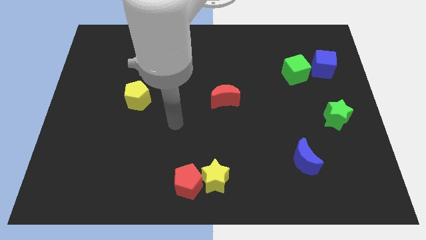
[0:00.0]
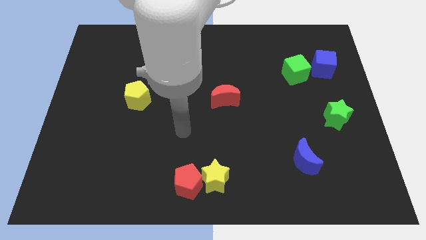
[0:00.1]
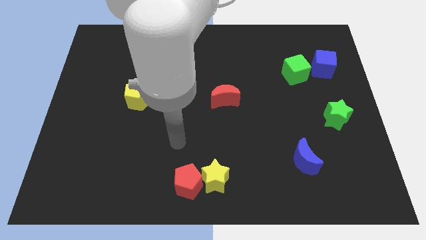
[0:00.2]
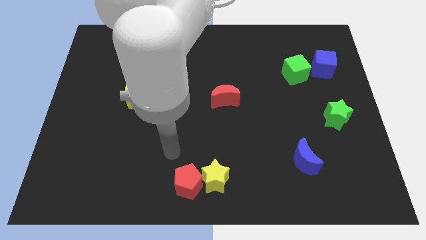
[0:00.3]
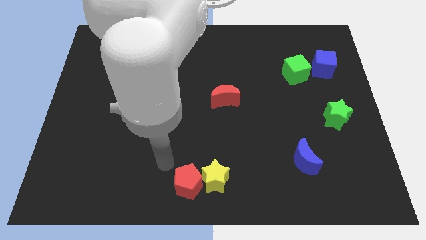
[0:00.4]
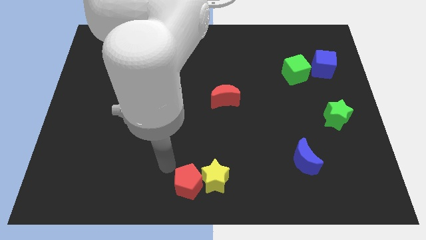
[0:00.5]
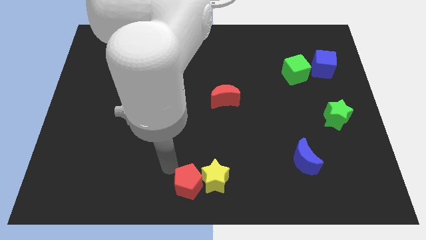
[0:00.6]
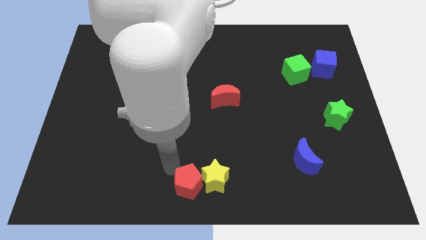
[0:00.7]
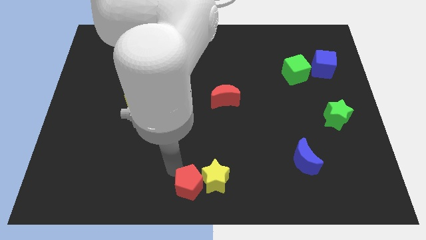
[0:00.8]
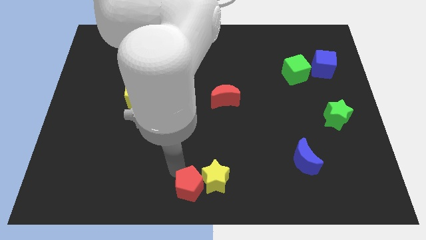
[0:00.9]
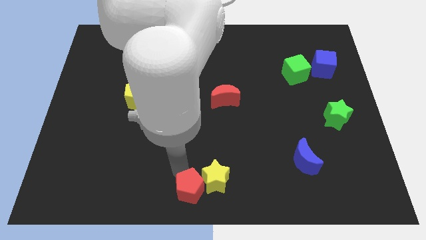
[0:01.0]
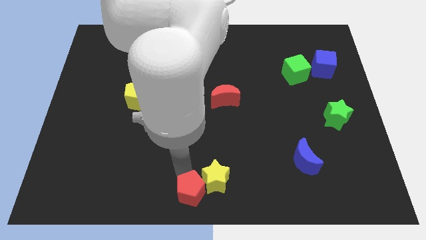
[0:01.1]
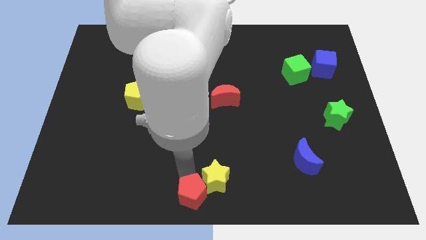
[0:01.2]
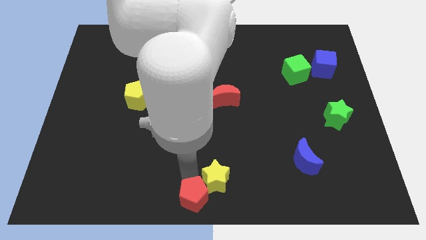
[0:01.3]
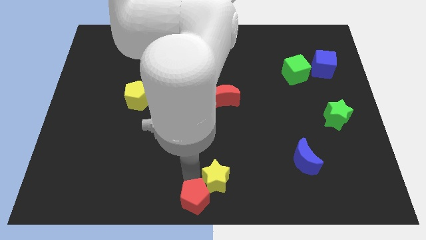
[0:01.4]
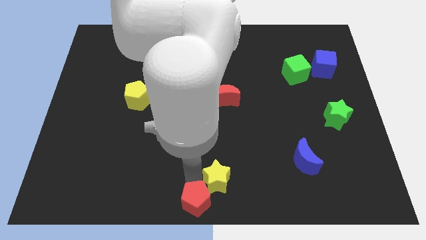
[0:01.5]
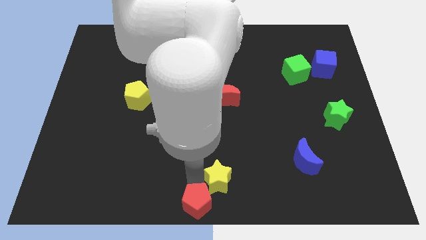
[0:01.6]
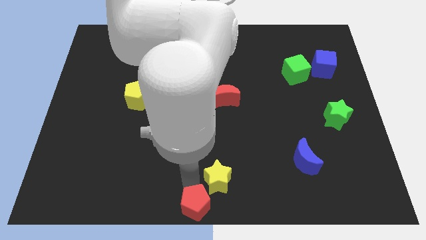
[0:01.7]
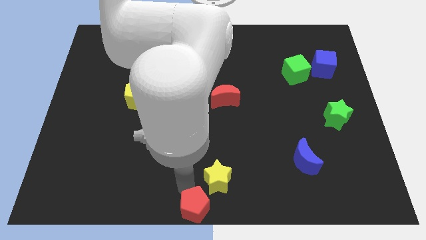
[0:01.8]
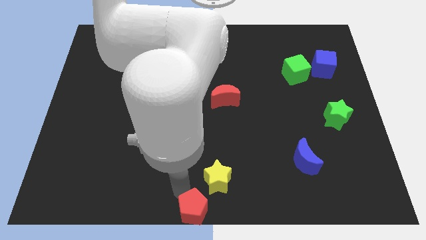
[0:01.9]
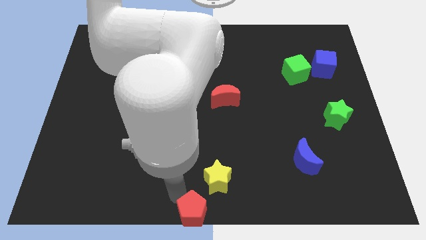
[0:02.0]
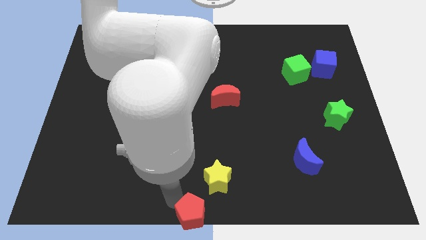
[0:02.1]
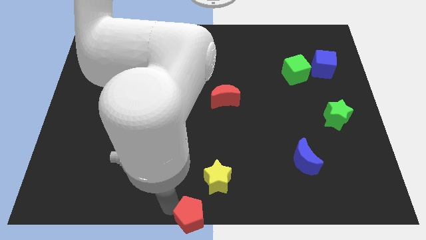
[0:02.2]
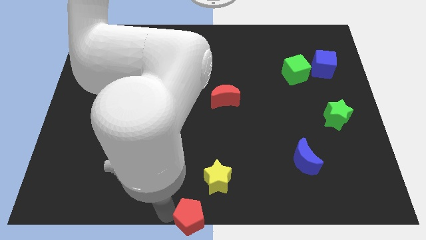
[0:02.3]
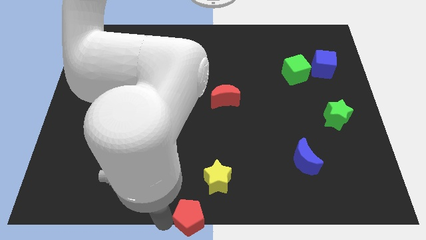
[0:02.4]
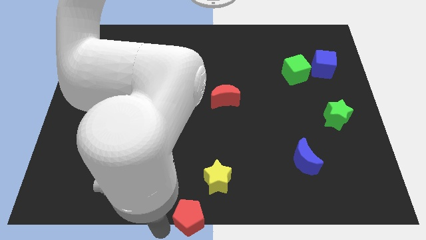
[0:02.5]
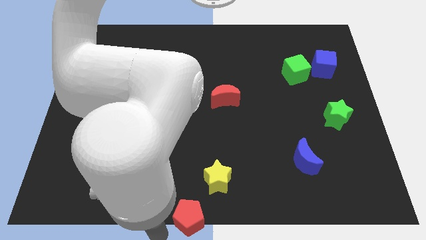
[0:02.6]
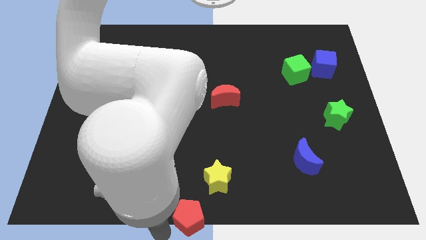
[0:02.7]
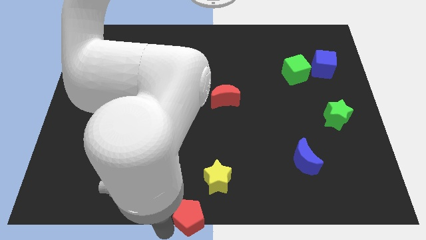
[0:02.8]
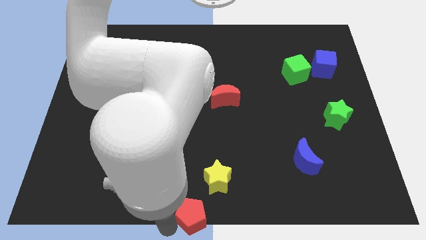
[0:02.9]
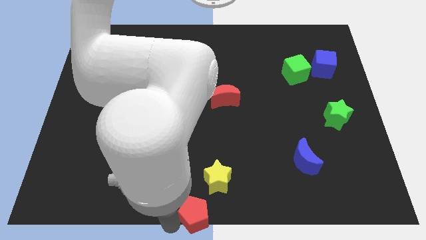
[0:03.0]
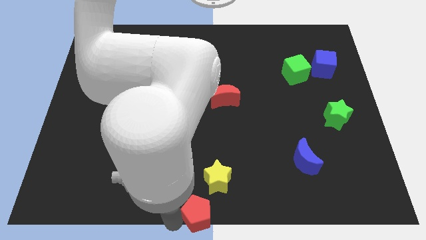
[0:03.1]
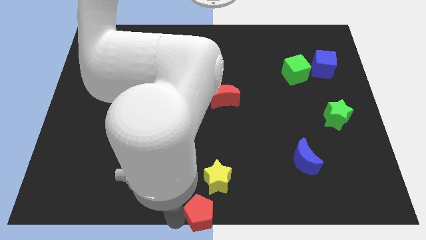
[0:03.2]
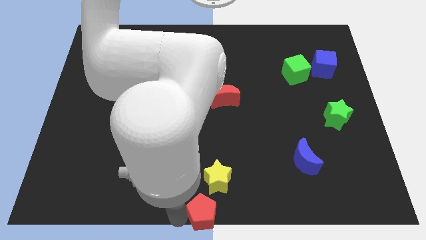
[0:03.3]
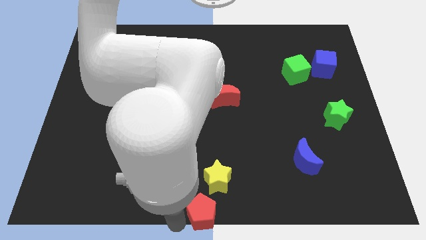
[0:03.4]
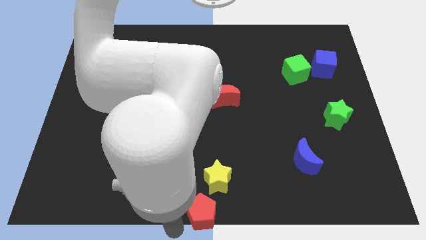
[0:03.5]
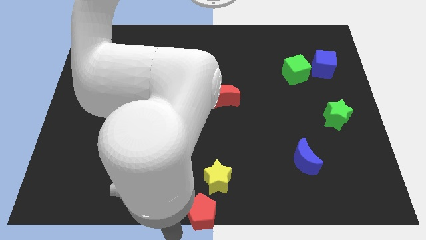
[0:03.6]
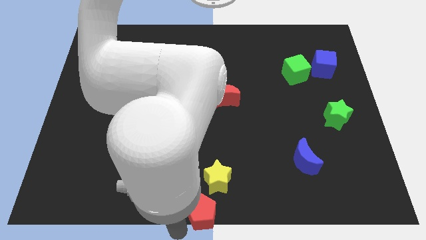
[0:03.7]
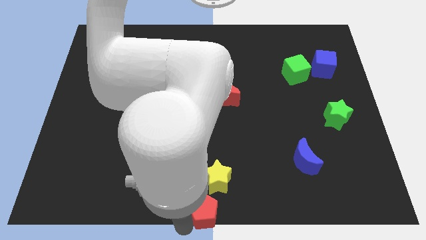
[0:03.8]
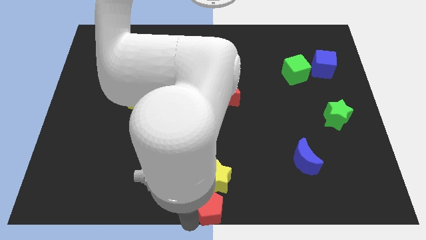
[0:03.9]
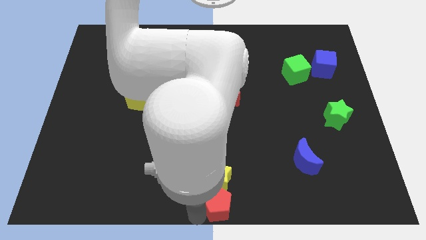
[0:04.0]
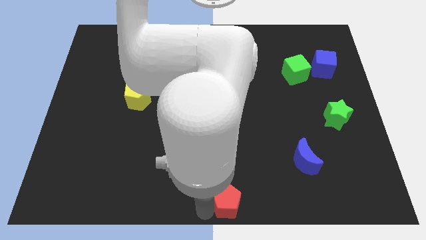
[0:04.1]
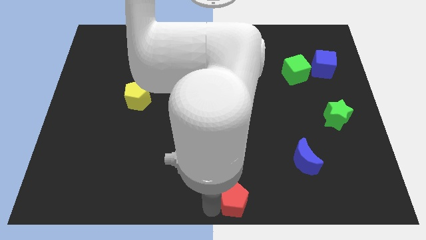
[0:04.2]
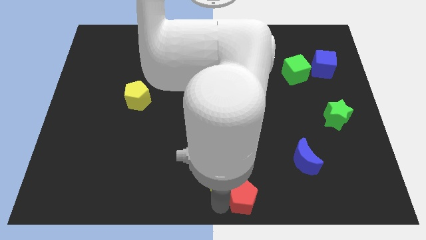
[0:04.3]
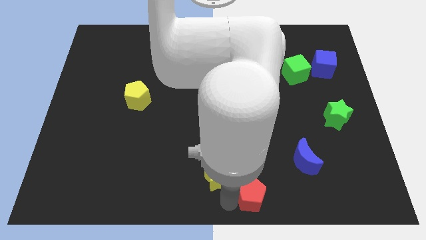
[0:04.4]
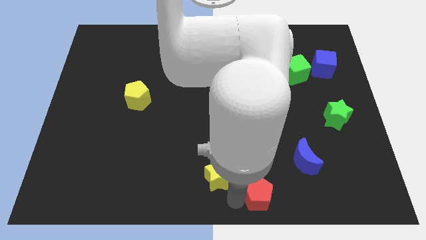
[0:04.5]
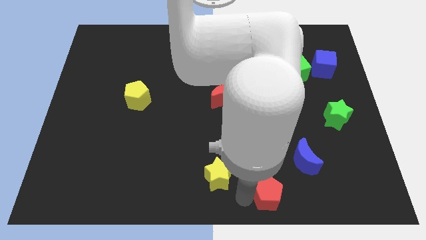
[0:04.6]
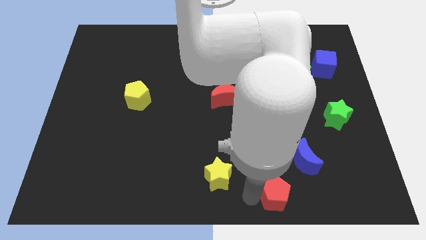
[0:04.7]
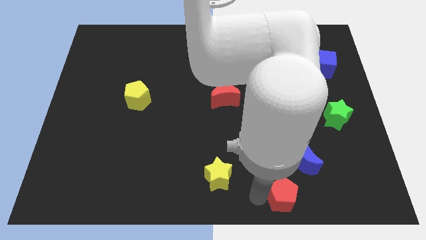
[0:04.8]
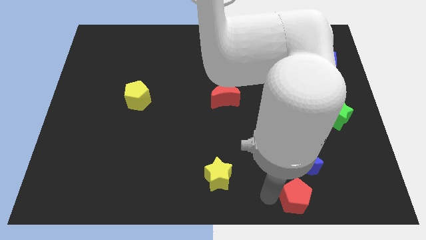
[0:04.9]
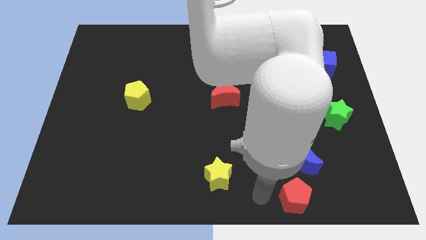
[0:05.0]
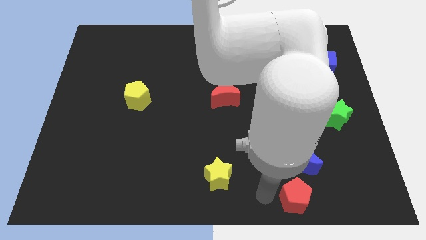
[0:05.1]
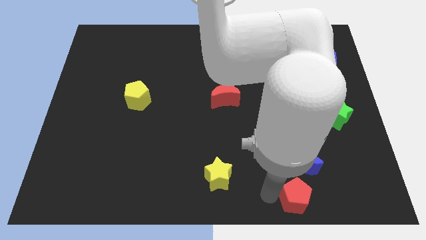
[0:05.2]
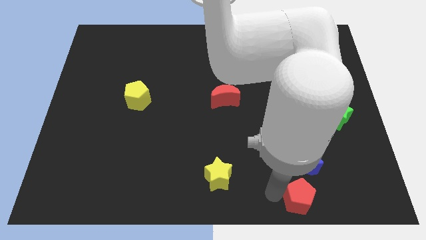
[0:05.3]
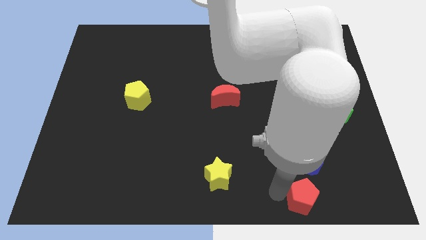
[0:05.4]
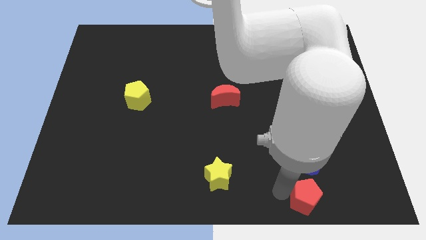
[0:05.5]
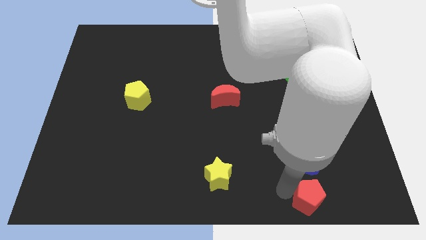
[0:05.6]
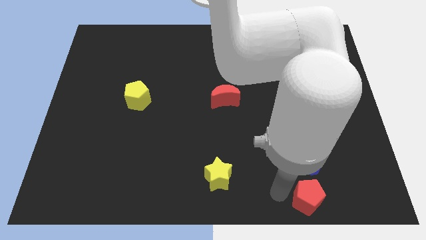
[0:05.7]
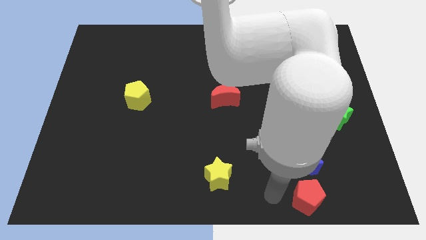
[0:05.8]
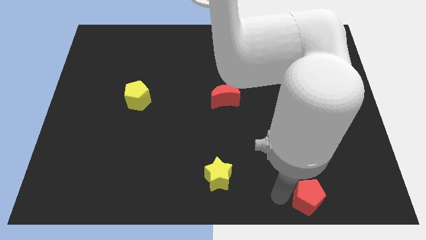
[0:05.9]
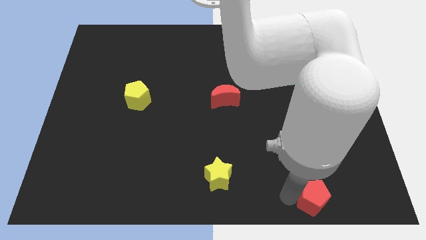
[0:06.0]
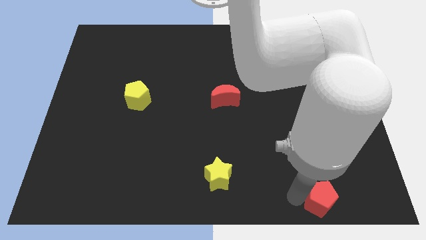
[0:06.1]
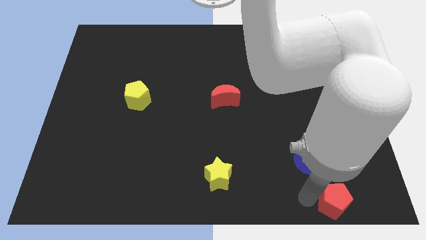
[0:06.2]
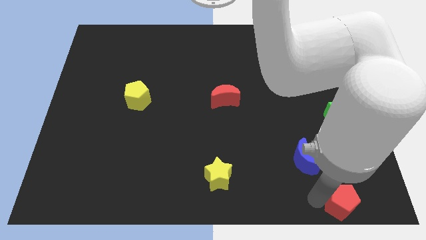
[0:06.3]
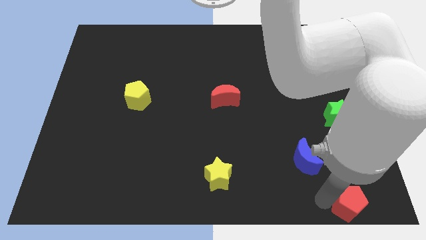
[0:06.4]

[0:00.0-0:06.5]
put the red pentagon to the lower right corner

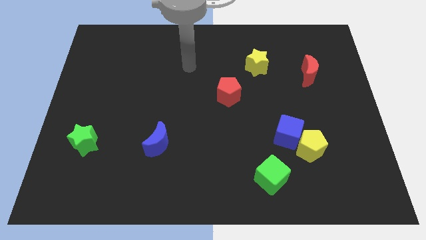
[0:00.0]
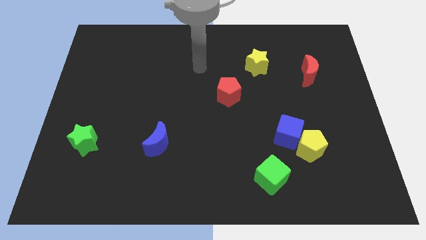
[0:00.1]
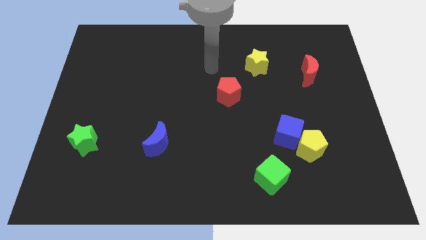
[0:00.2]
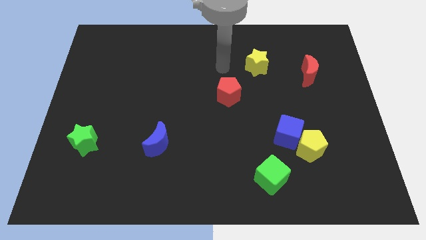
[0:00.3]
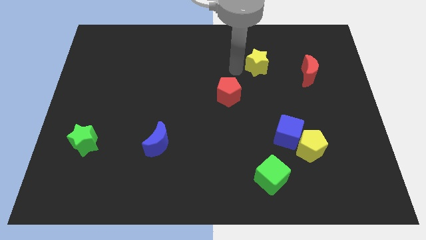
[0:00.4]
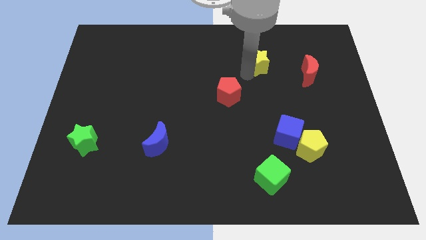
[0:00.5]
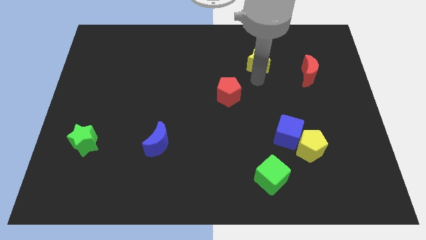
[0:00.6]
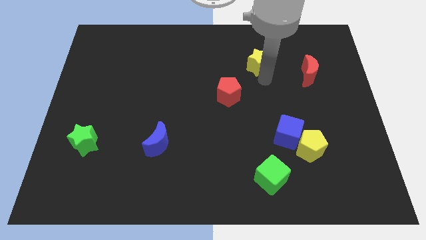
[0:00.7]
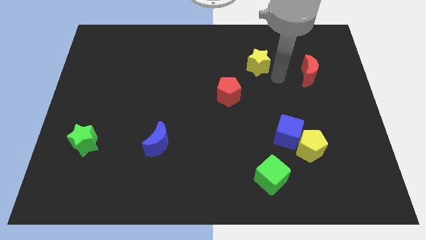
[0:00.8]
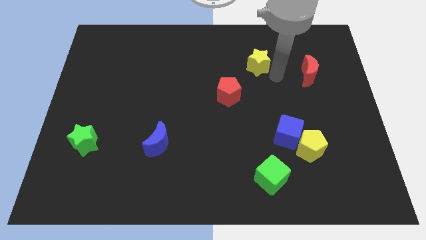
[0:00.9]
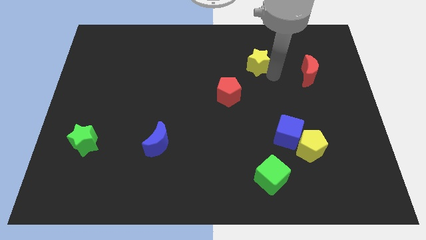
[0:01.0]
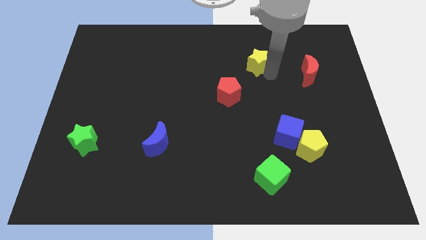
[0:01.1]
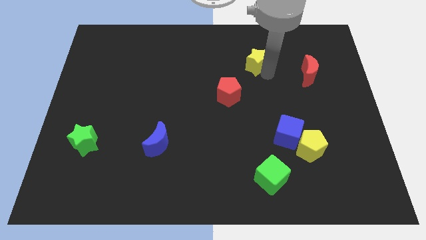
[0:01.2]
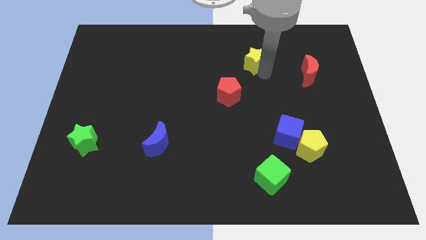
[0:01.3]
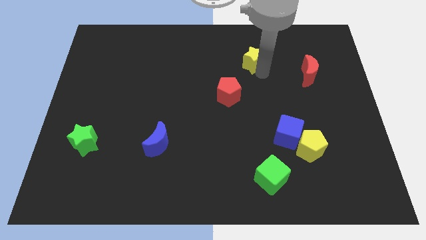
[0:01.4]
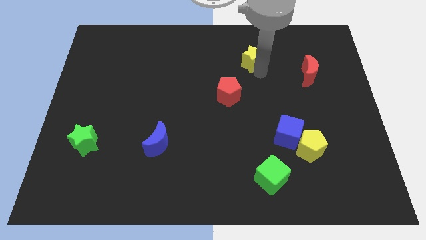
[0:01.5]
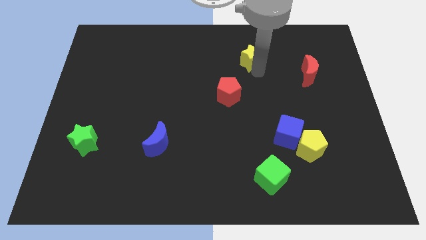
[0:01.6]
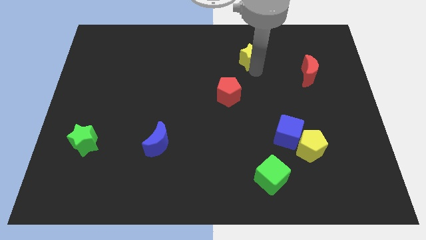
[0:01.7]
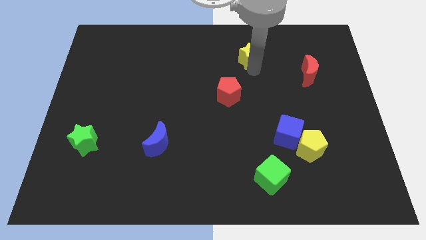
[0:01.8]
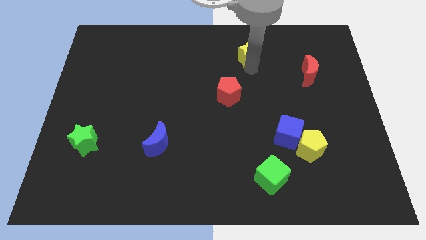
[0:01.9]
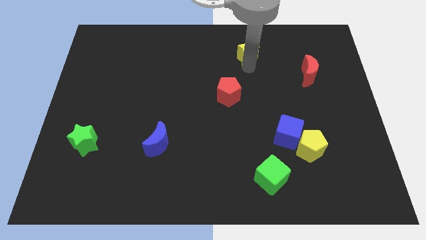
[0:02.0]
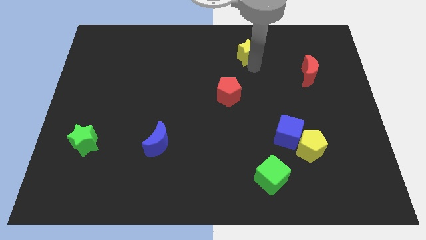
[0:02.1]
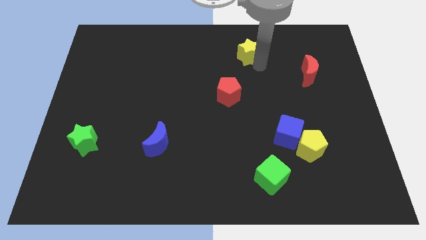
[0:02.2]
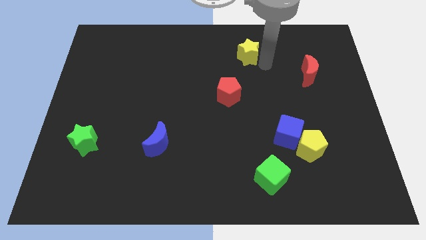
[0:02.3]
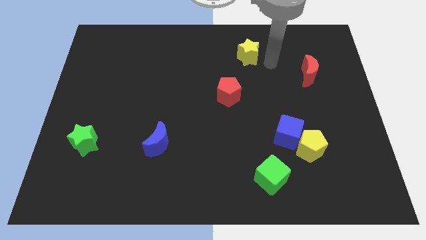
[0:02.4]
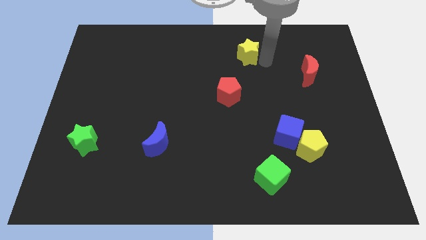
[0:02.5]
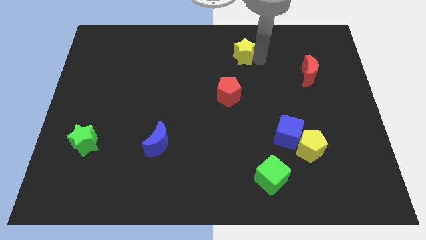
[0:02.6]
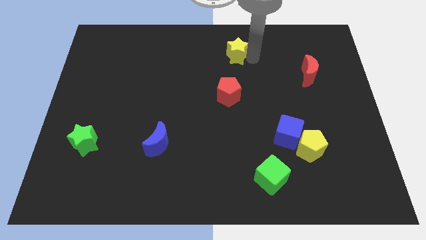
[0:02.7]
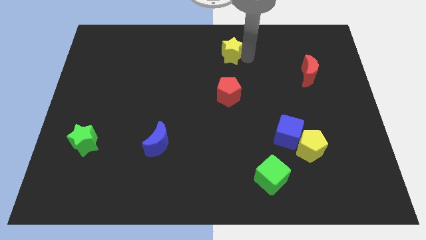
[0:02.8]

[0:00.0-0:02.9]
put the yellow star to the top
